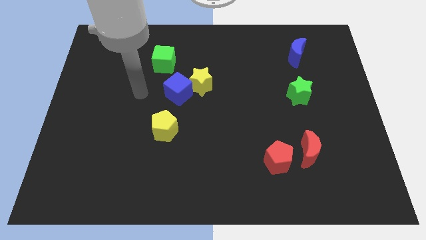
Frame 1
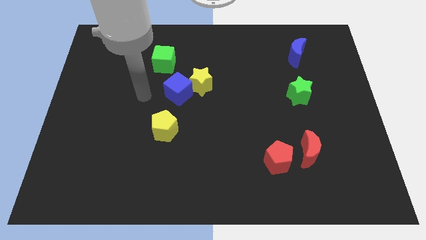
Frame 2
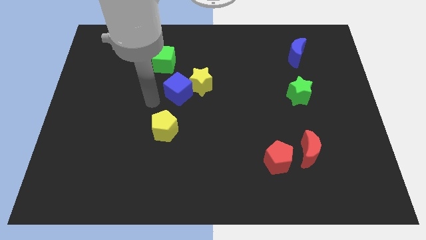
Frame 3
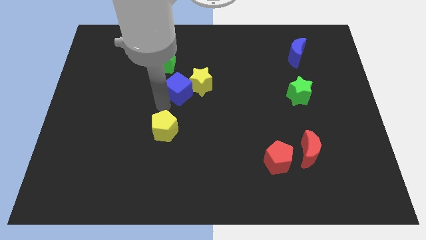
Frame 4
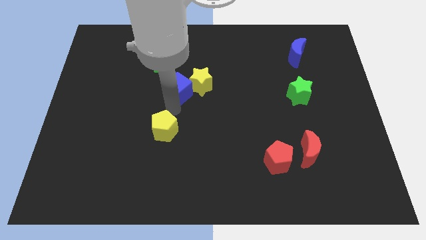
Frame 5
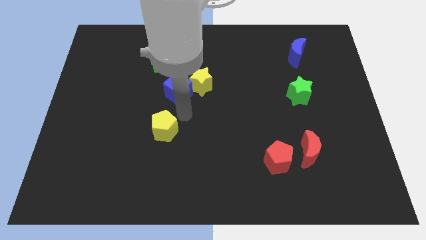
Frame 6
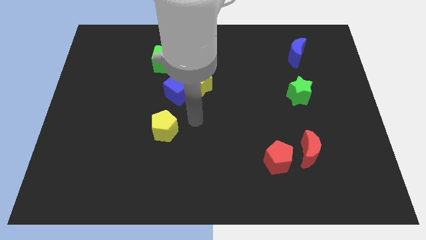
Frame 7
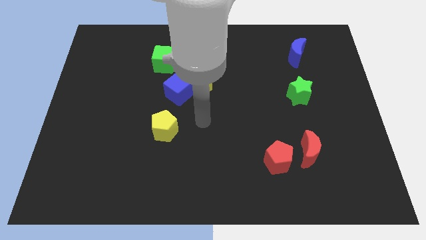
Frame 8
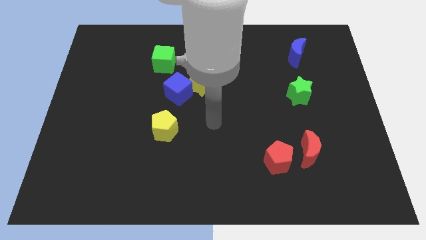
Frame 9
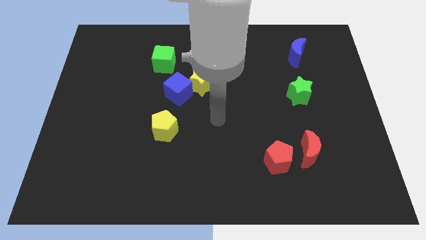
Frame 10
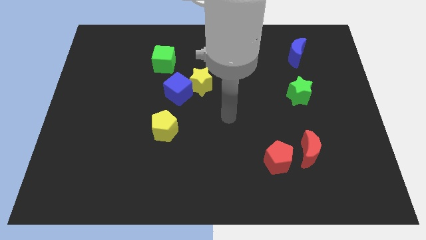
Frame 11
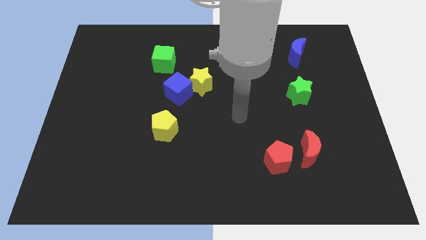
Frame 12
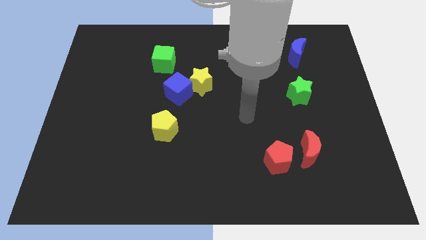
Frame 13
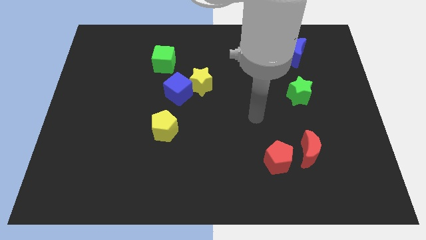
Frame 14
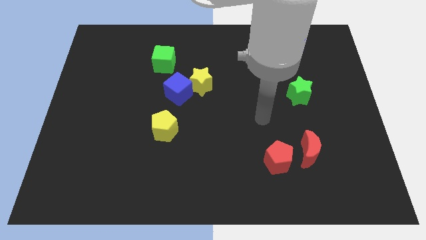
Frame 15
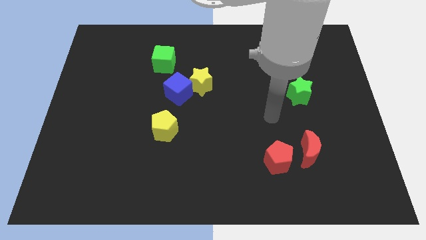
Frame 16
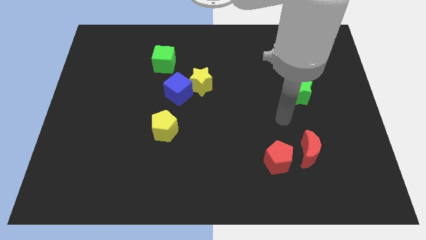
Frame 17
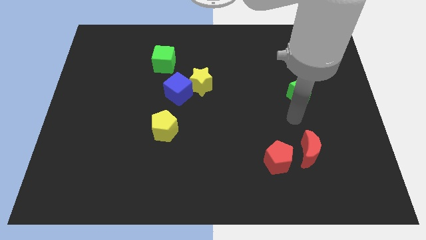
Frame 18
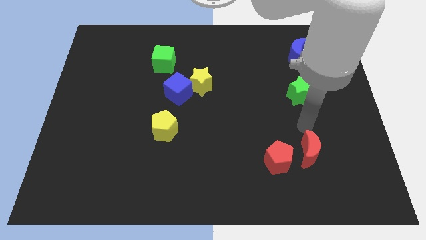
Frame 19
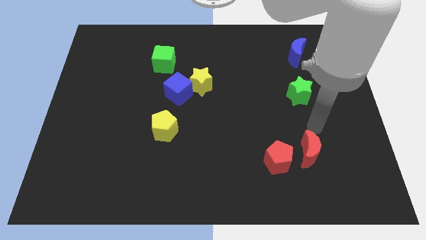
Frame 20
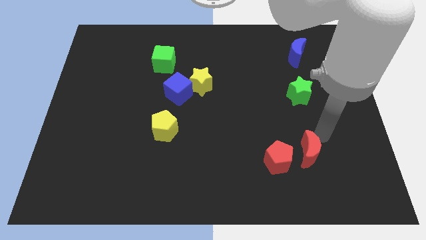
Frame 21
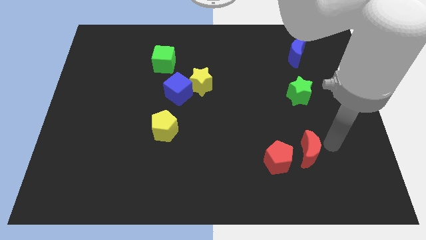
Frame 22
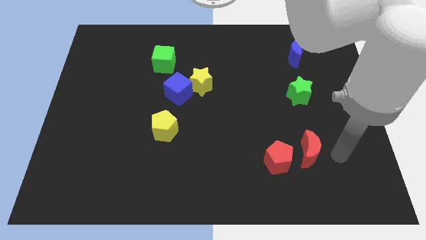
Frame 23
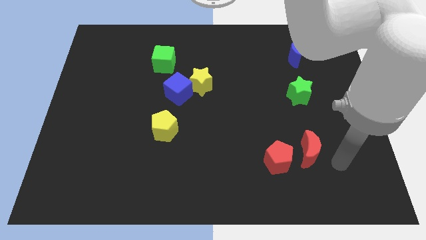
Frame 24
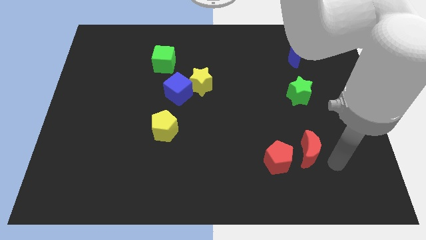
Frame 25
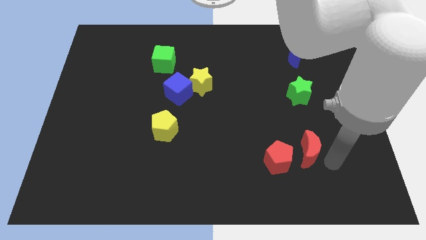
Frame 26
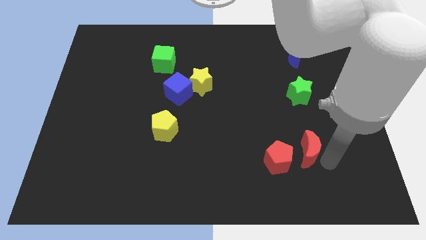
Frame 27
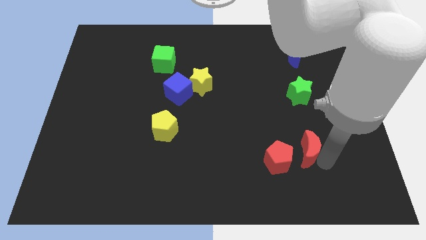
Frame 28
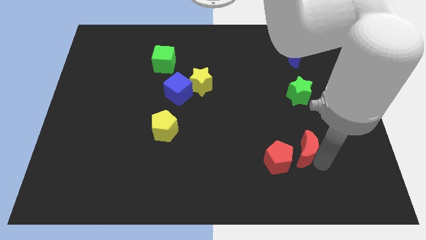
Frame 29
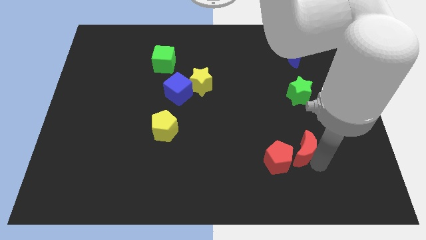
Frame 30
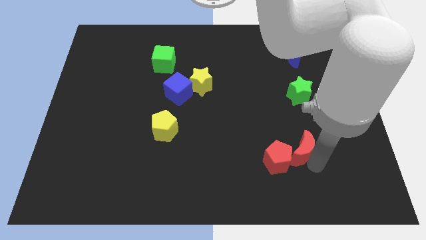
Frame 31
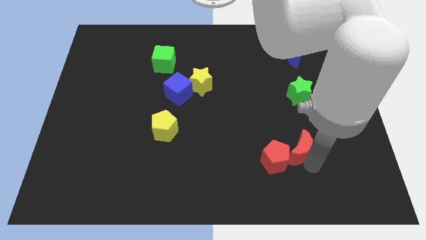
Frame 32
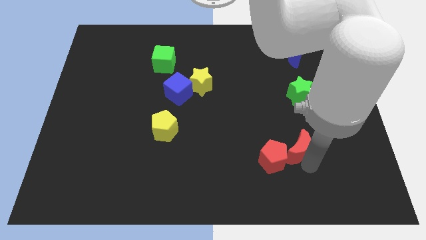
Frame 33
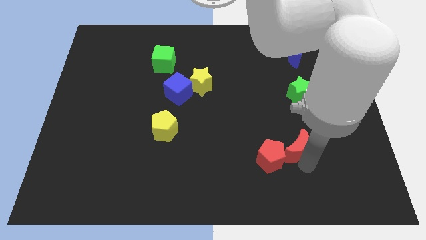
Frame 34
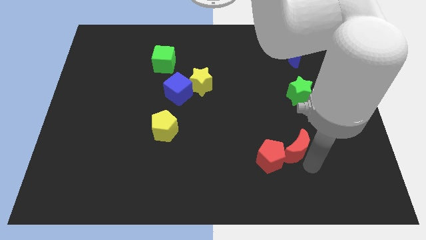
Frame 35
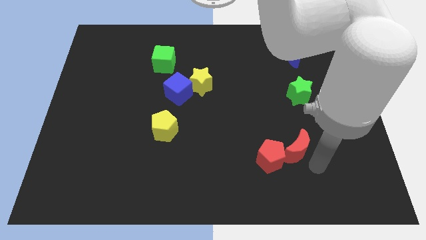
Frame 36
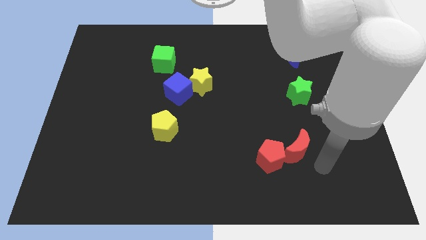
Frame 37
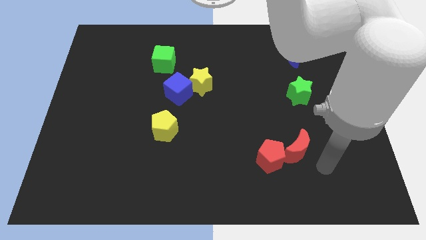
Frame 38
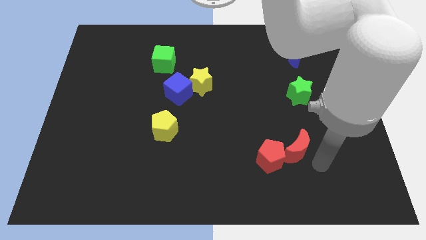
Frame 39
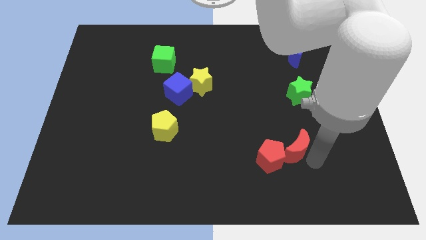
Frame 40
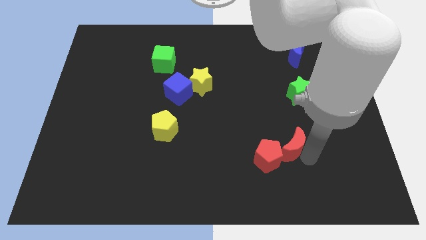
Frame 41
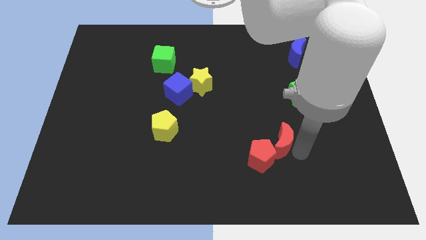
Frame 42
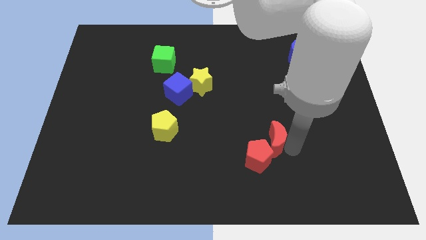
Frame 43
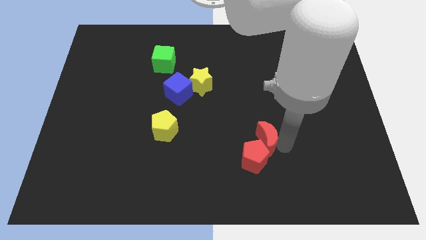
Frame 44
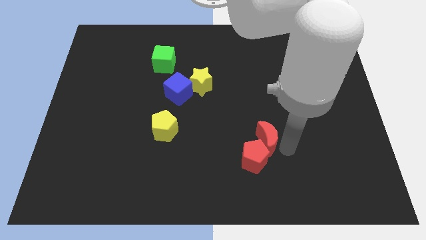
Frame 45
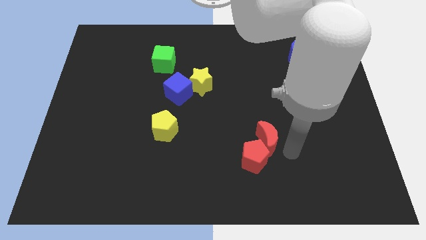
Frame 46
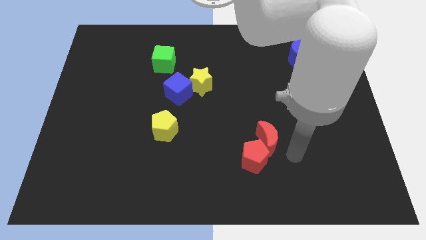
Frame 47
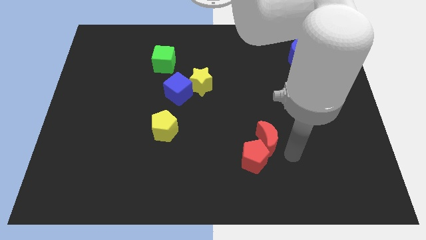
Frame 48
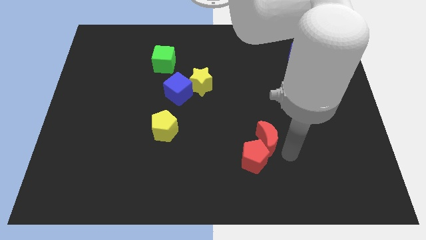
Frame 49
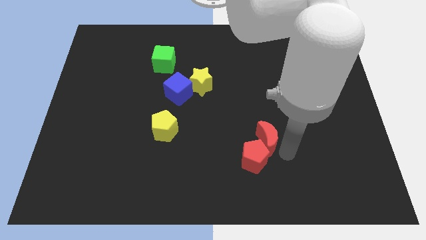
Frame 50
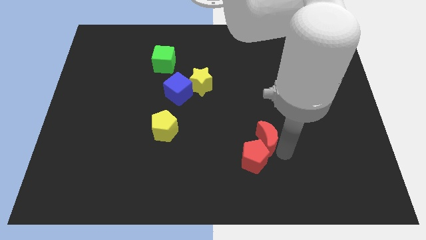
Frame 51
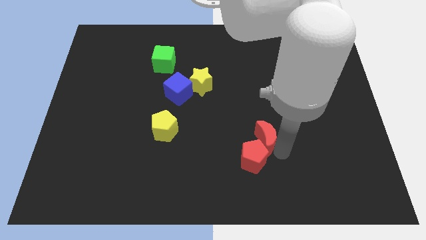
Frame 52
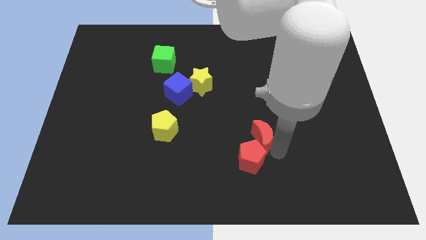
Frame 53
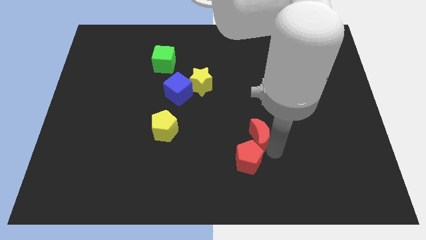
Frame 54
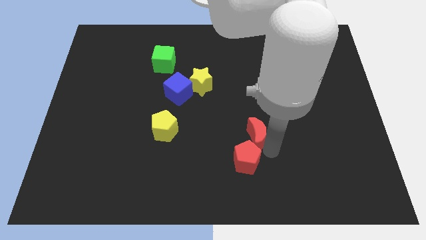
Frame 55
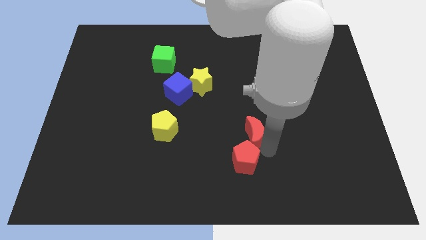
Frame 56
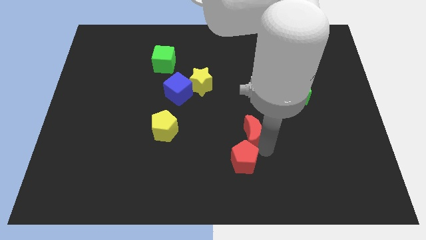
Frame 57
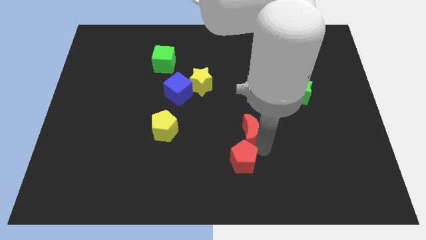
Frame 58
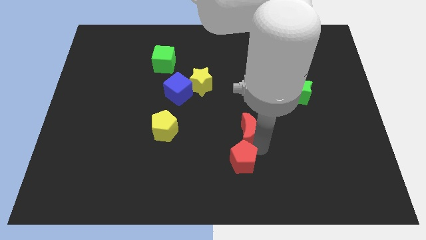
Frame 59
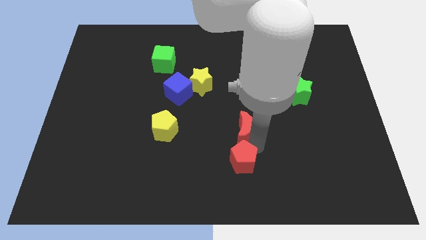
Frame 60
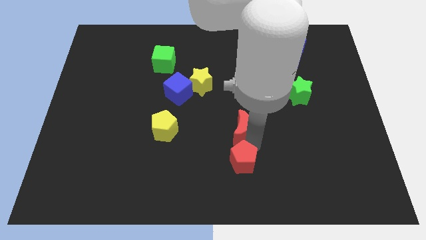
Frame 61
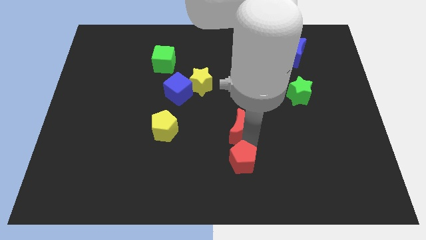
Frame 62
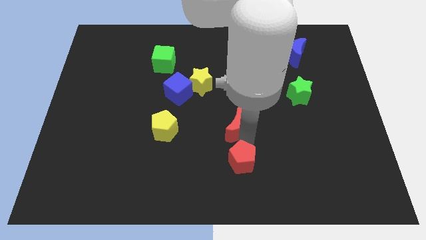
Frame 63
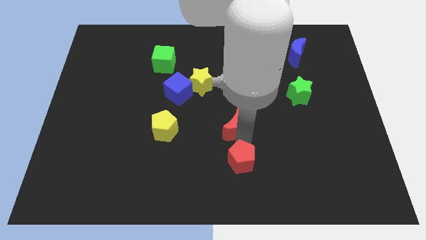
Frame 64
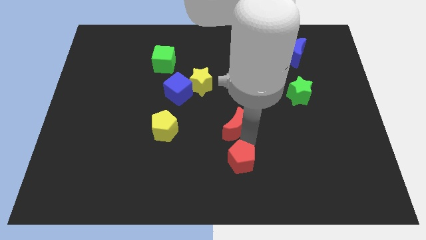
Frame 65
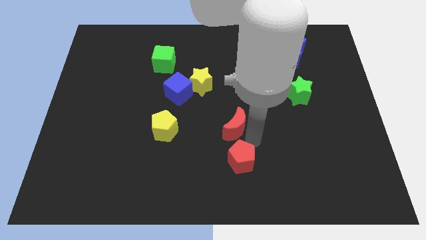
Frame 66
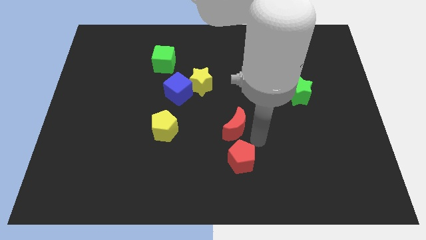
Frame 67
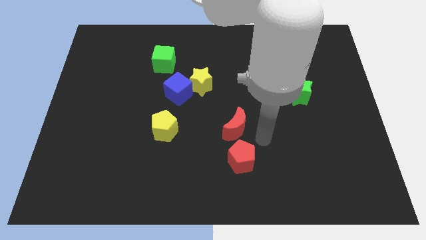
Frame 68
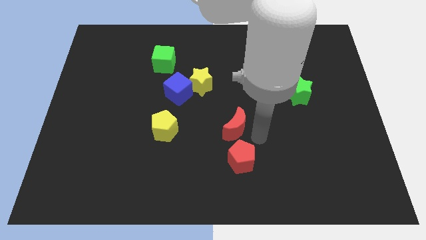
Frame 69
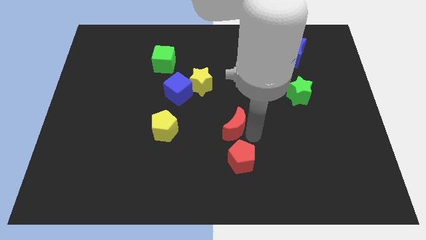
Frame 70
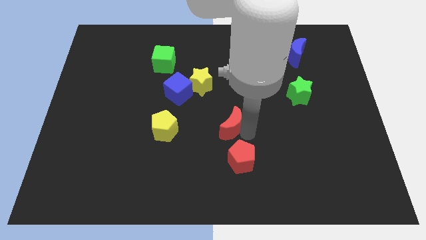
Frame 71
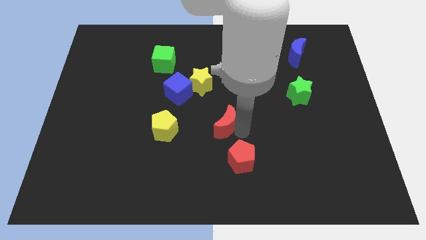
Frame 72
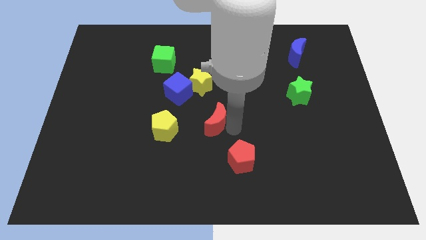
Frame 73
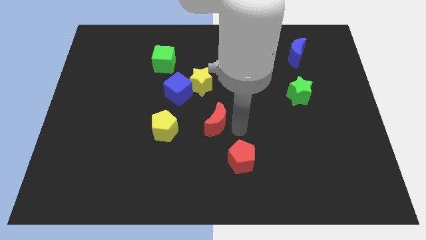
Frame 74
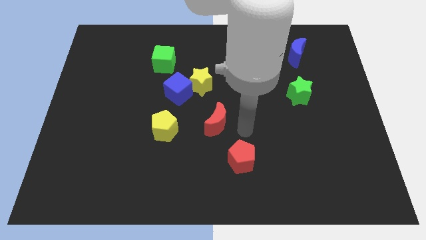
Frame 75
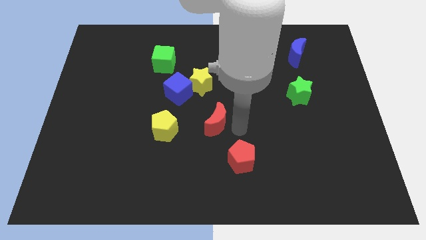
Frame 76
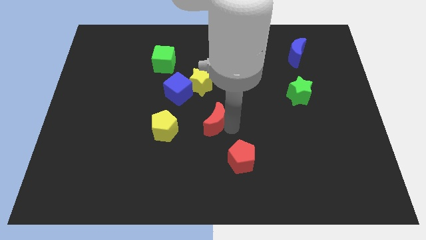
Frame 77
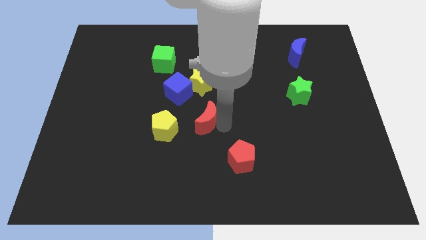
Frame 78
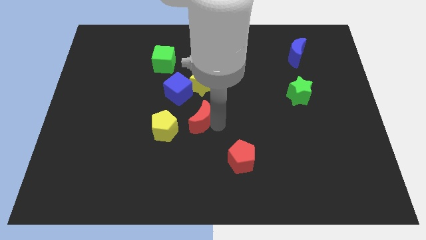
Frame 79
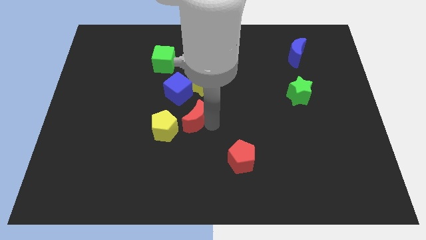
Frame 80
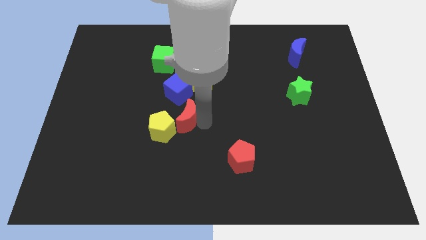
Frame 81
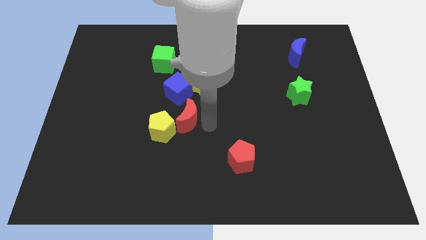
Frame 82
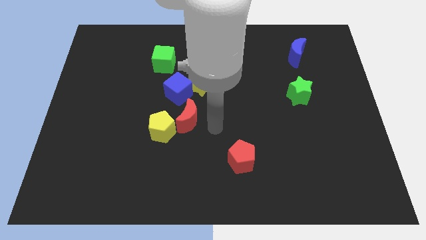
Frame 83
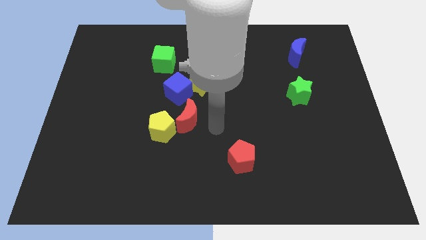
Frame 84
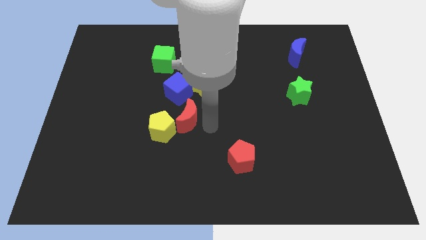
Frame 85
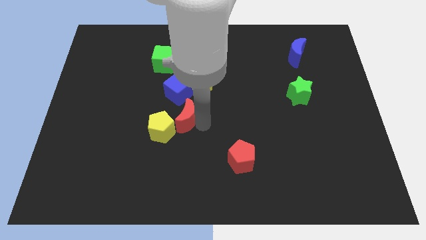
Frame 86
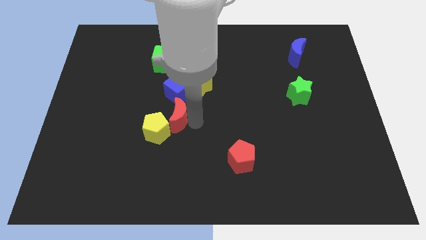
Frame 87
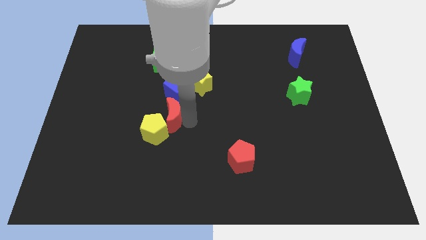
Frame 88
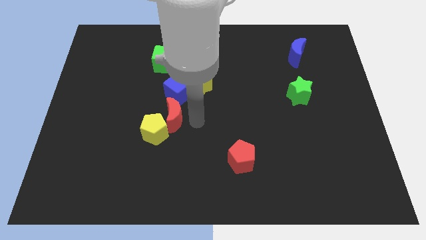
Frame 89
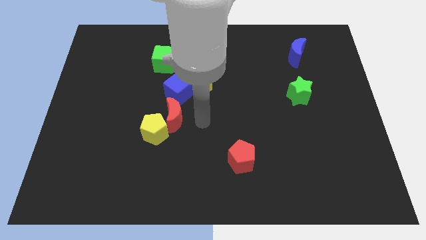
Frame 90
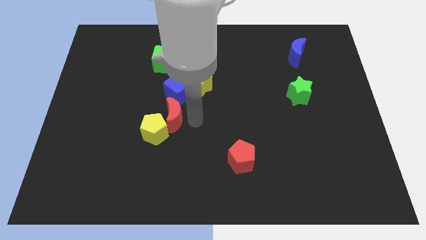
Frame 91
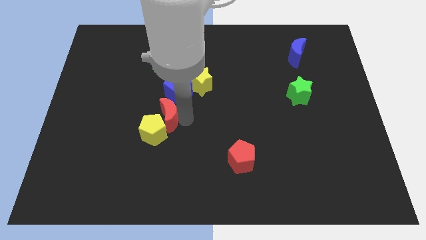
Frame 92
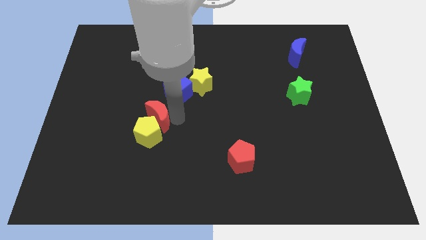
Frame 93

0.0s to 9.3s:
push the red moon to the top left of the yellow pentagon
